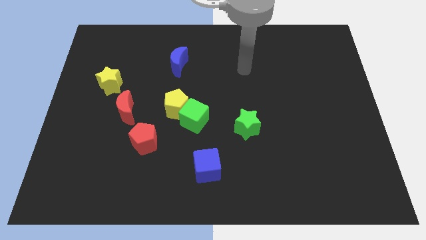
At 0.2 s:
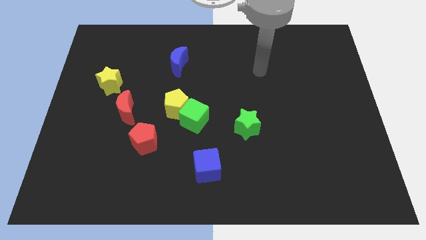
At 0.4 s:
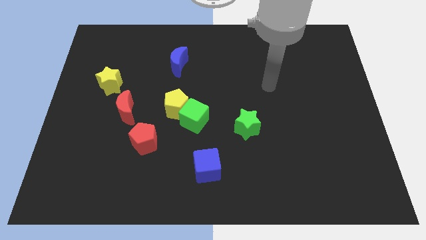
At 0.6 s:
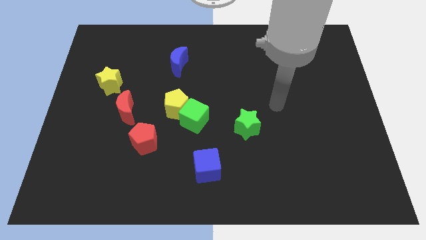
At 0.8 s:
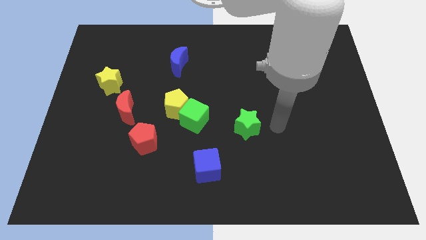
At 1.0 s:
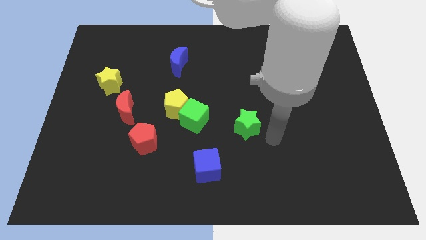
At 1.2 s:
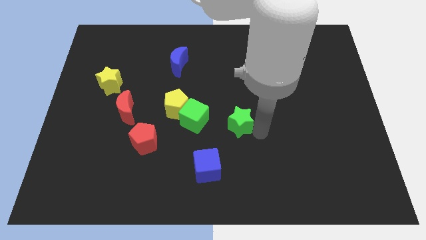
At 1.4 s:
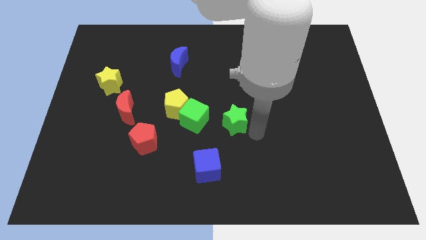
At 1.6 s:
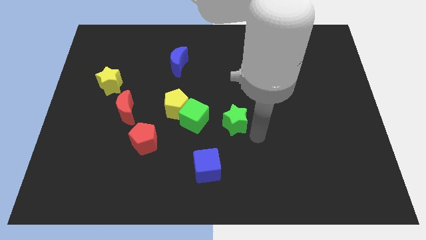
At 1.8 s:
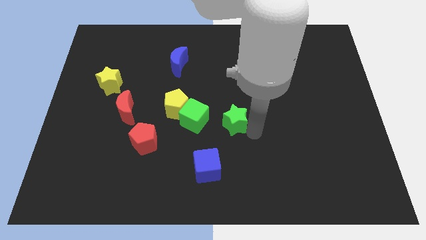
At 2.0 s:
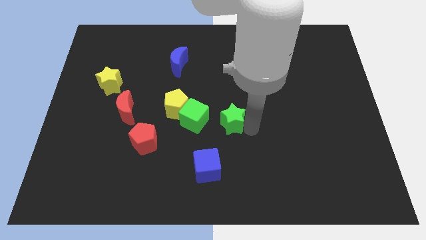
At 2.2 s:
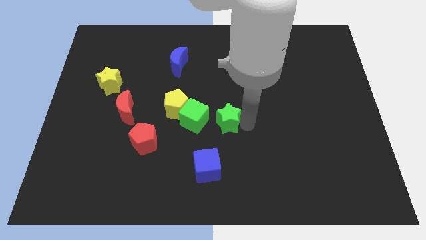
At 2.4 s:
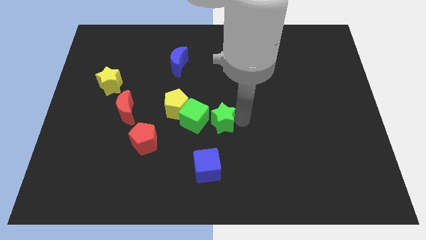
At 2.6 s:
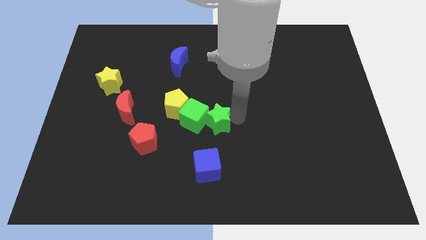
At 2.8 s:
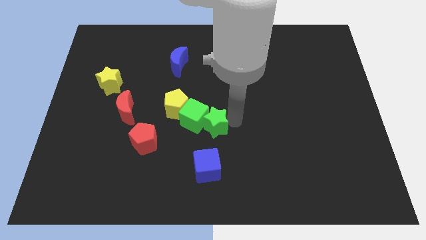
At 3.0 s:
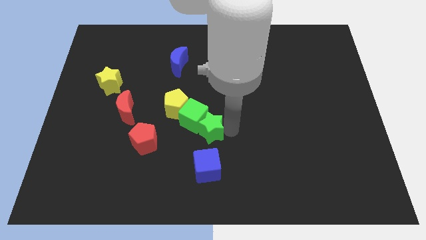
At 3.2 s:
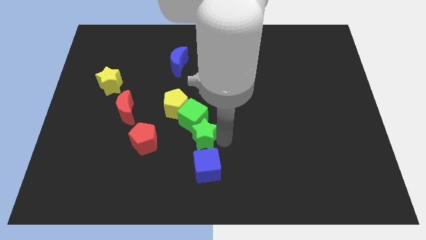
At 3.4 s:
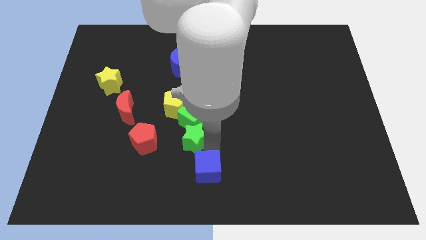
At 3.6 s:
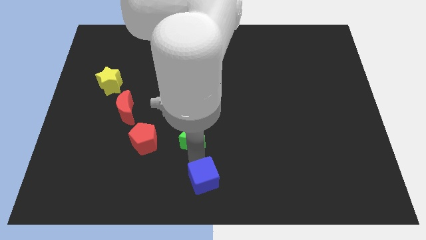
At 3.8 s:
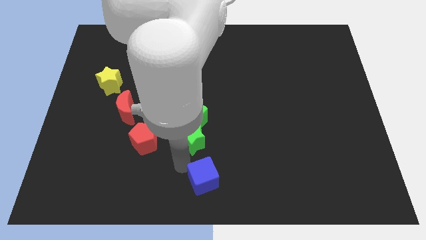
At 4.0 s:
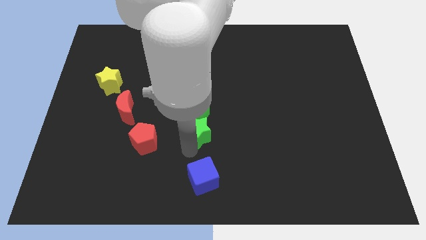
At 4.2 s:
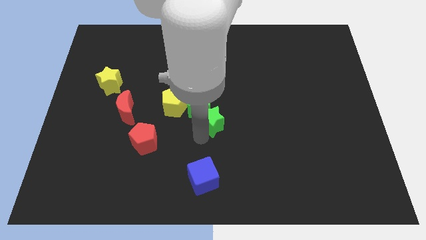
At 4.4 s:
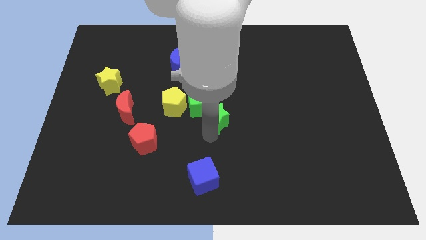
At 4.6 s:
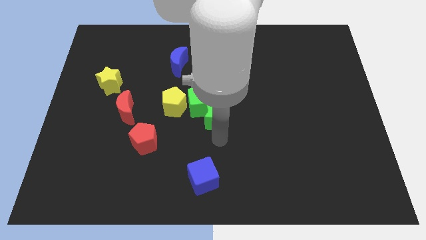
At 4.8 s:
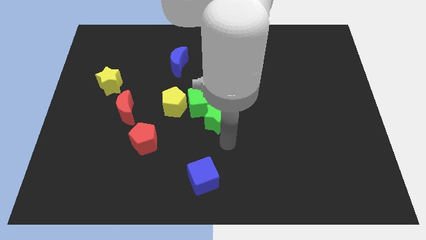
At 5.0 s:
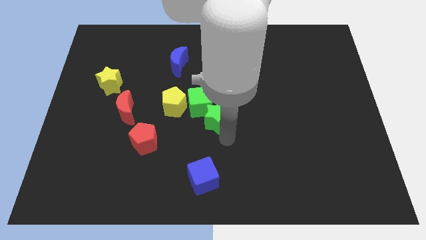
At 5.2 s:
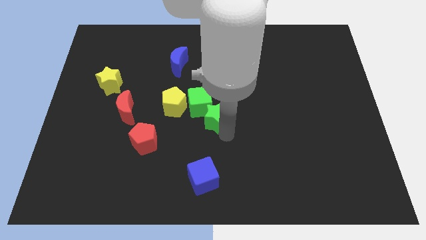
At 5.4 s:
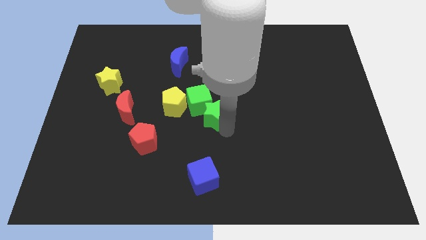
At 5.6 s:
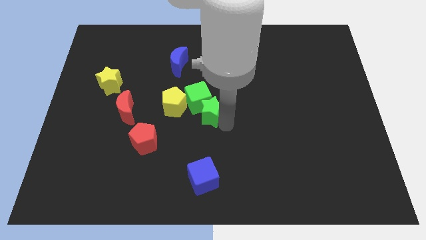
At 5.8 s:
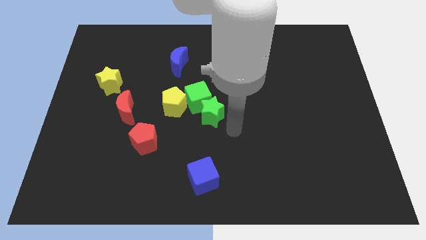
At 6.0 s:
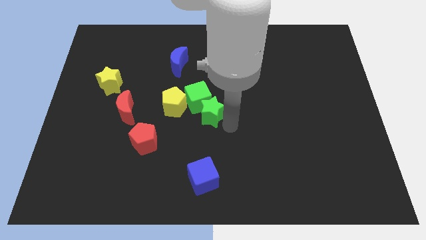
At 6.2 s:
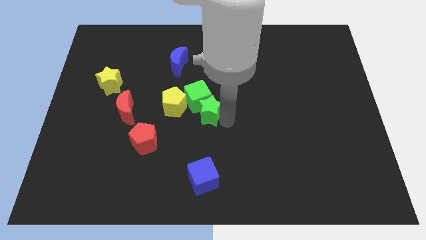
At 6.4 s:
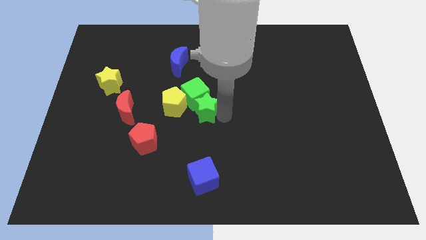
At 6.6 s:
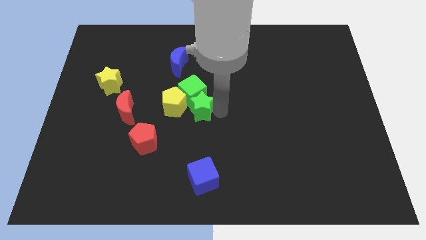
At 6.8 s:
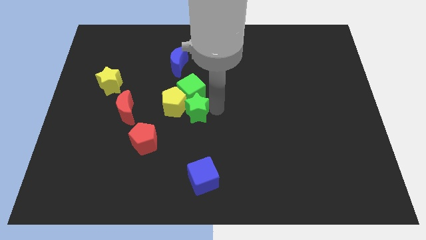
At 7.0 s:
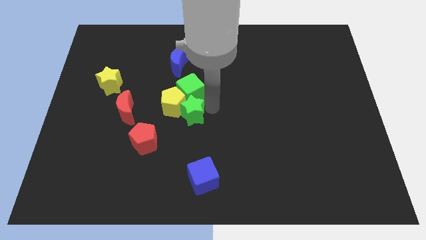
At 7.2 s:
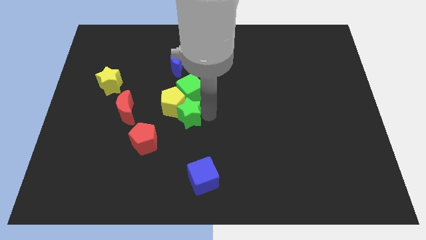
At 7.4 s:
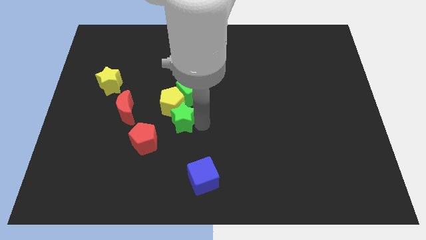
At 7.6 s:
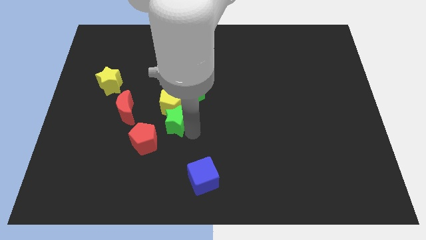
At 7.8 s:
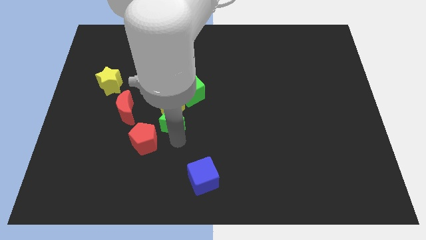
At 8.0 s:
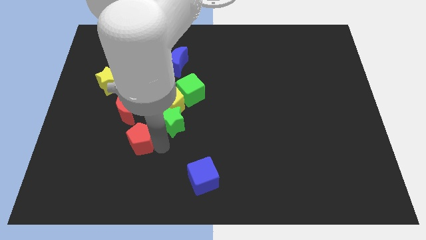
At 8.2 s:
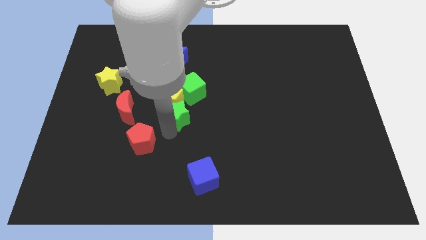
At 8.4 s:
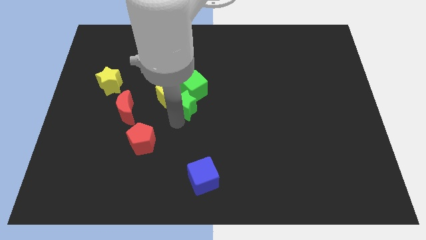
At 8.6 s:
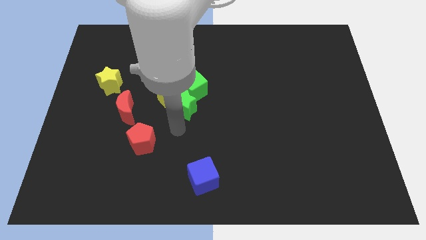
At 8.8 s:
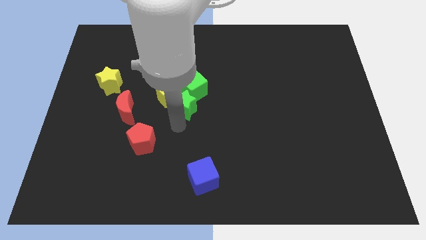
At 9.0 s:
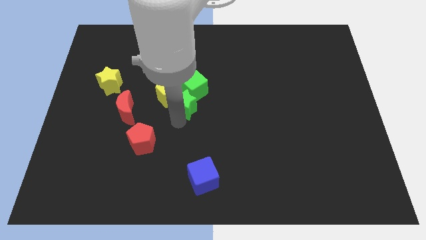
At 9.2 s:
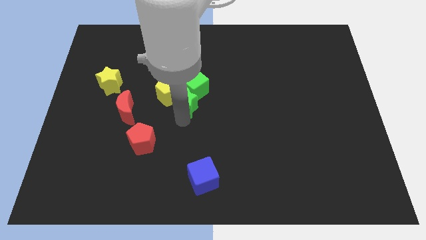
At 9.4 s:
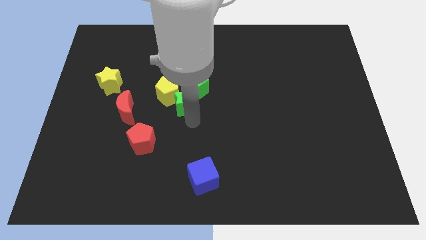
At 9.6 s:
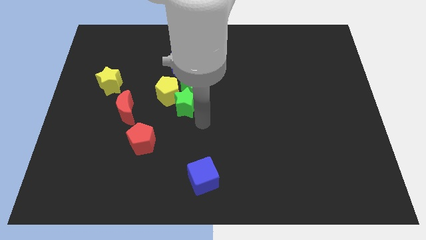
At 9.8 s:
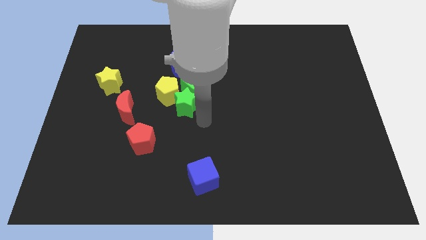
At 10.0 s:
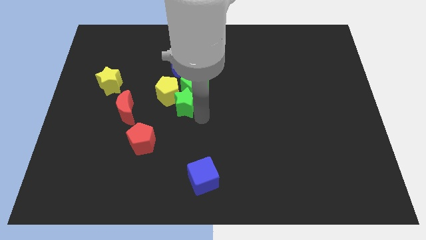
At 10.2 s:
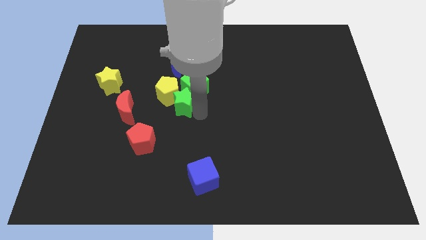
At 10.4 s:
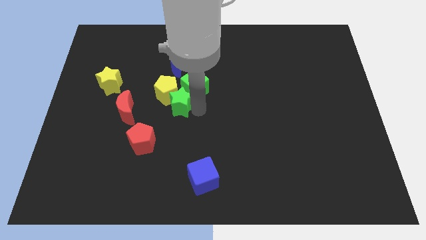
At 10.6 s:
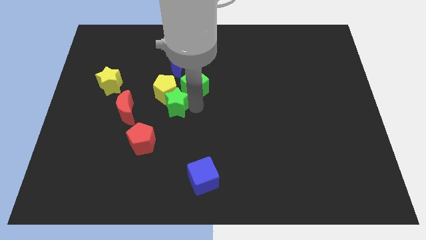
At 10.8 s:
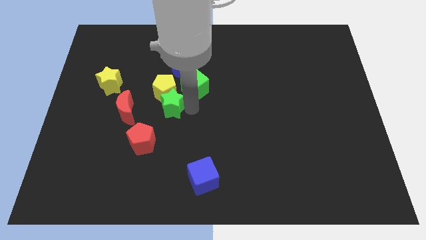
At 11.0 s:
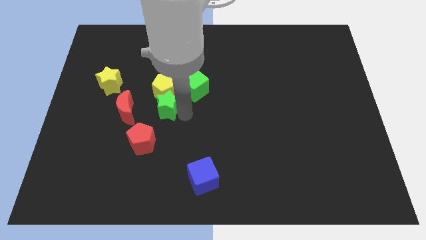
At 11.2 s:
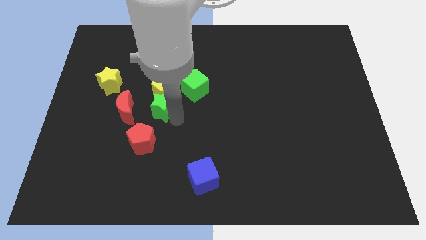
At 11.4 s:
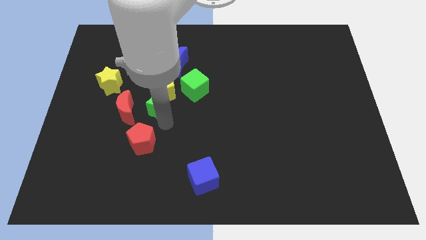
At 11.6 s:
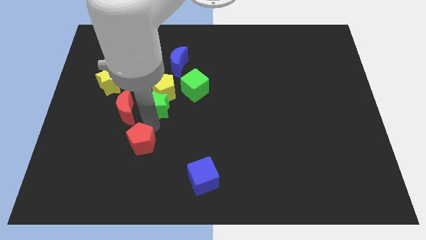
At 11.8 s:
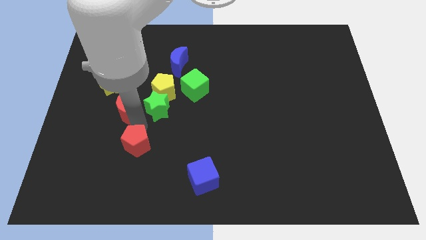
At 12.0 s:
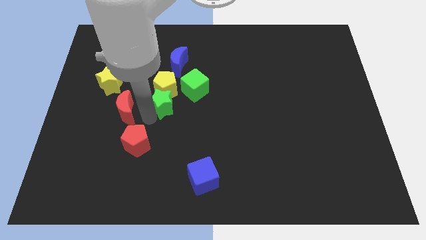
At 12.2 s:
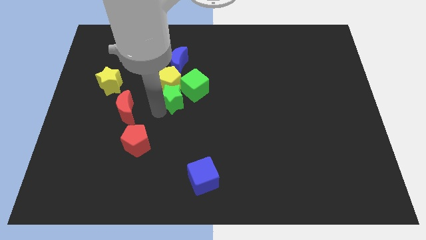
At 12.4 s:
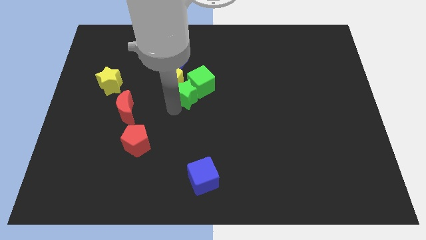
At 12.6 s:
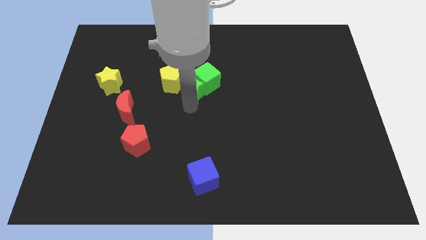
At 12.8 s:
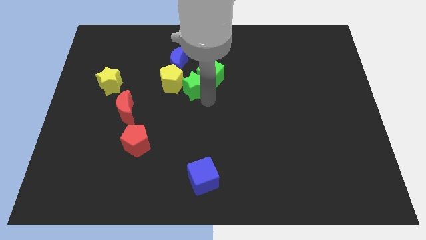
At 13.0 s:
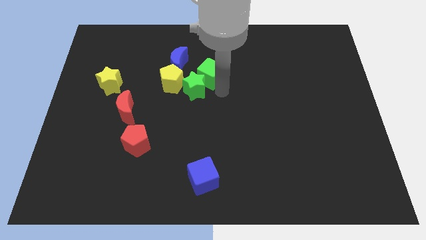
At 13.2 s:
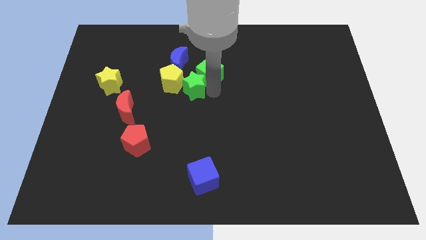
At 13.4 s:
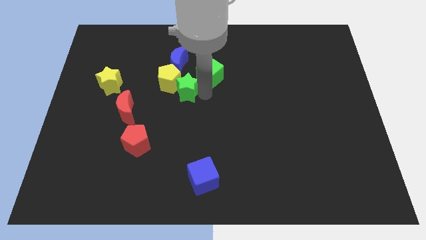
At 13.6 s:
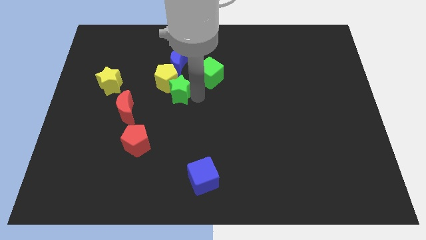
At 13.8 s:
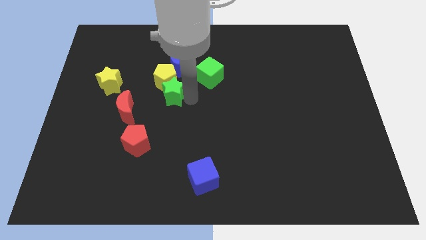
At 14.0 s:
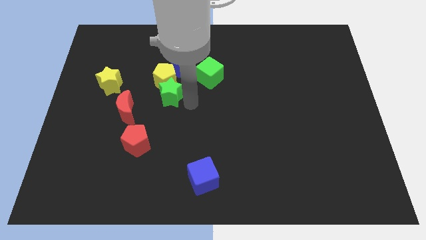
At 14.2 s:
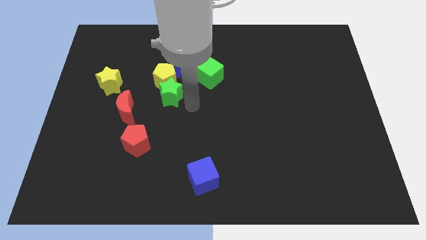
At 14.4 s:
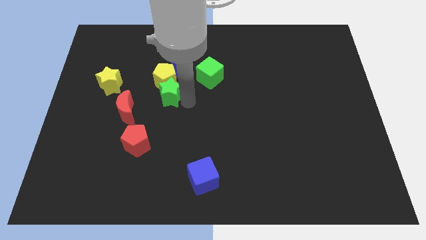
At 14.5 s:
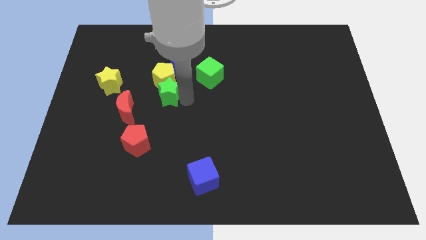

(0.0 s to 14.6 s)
put the green star right of the yellow star
